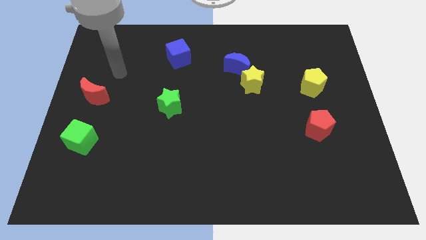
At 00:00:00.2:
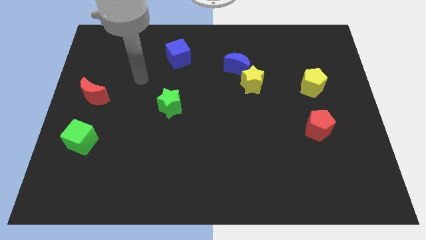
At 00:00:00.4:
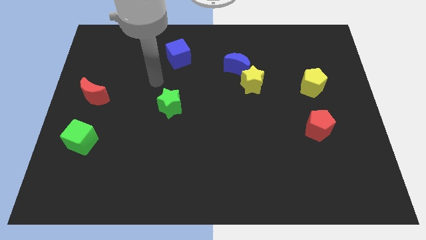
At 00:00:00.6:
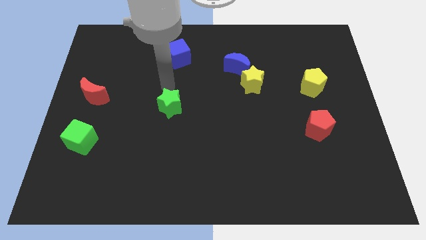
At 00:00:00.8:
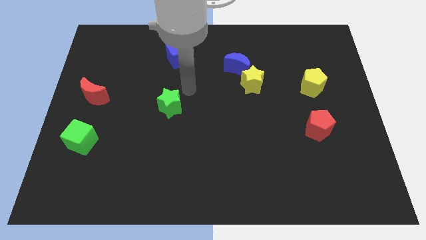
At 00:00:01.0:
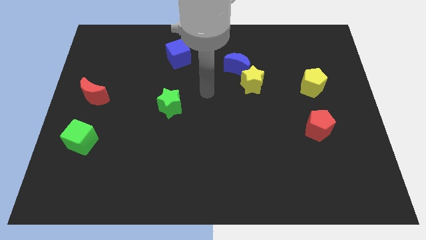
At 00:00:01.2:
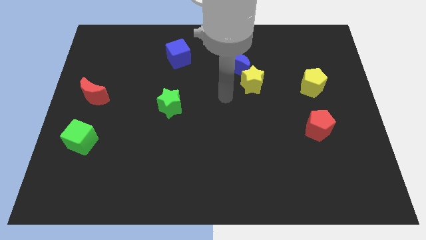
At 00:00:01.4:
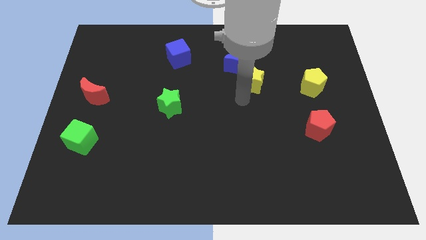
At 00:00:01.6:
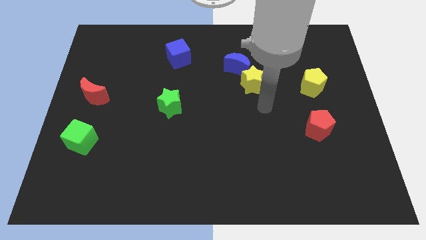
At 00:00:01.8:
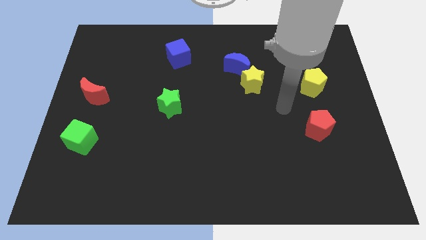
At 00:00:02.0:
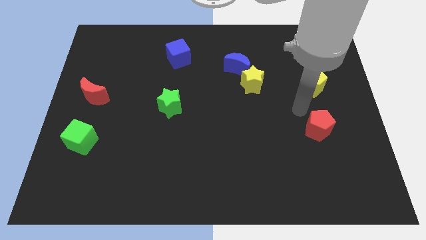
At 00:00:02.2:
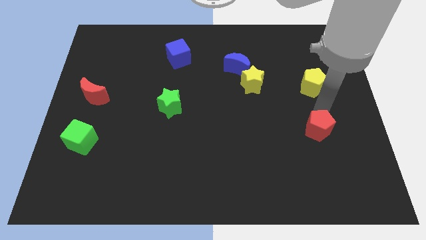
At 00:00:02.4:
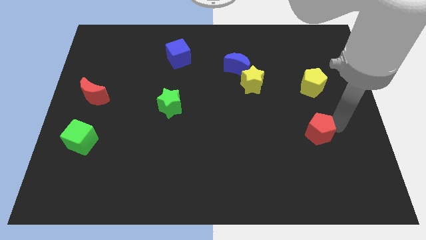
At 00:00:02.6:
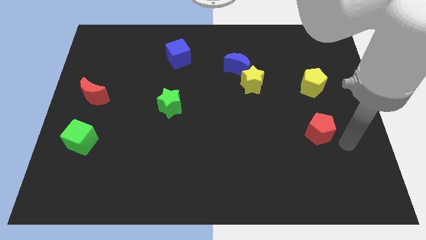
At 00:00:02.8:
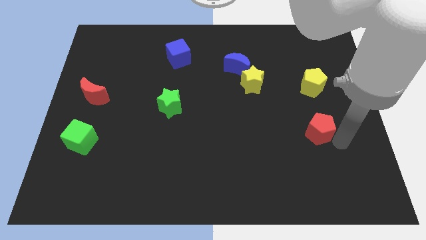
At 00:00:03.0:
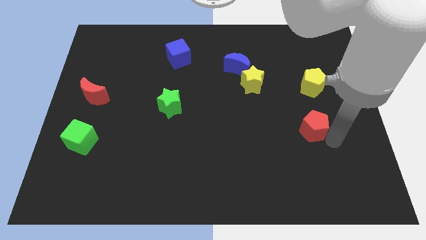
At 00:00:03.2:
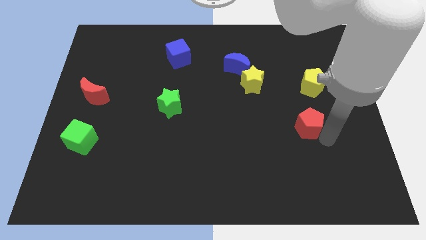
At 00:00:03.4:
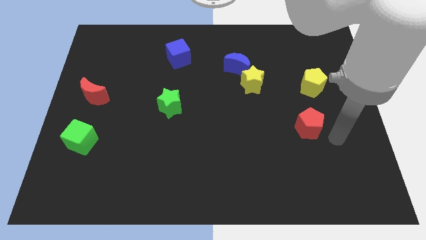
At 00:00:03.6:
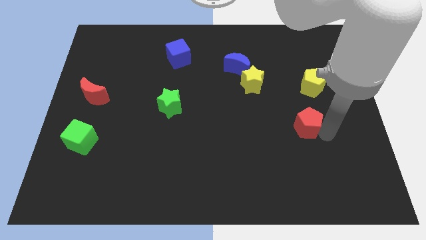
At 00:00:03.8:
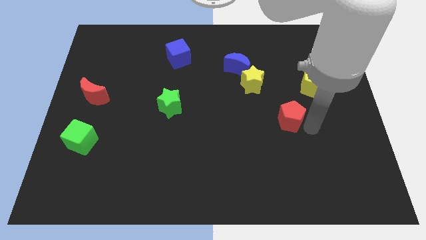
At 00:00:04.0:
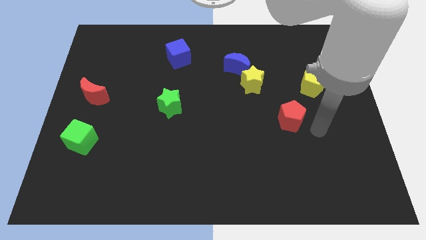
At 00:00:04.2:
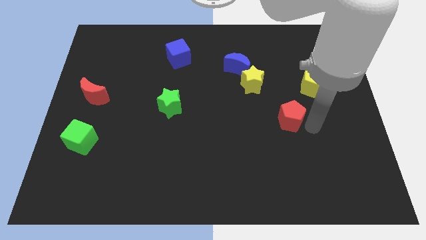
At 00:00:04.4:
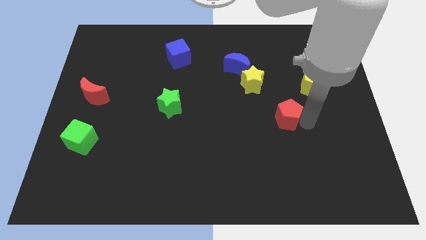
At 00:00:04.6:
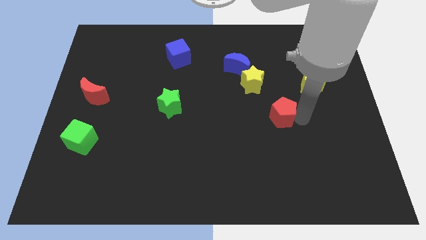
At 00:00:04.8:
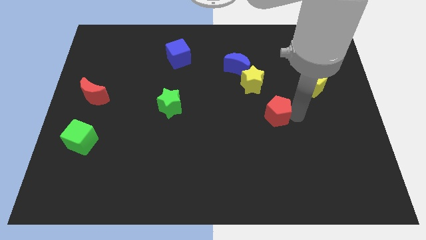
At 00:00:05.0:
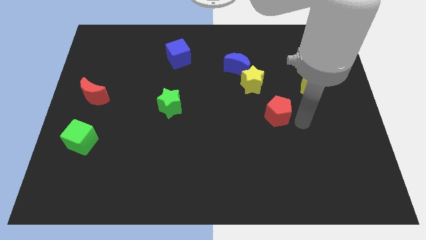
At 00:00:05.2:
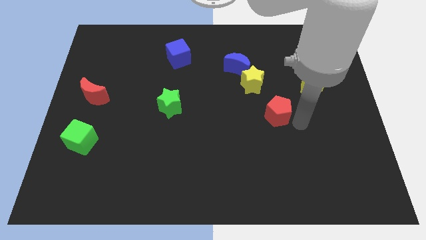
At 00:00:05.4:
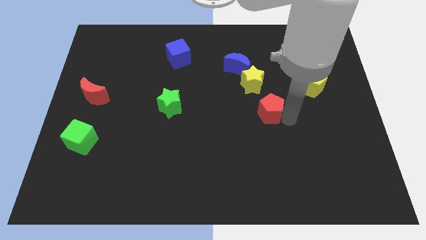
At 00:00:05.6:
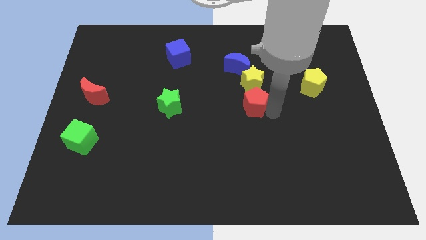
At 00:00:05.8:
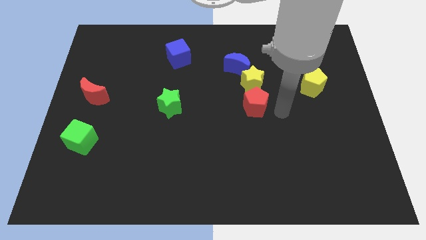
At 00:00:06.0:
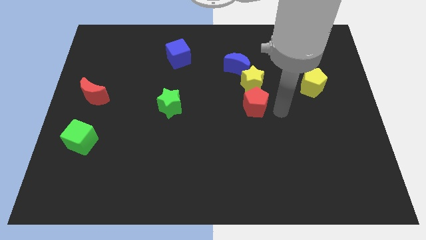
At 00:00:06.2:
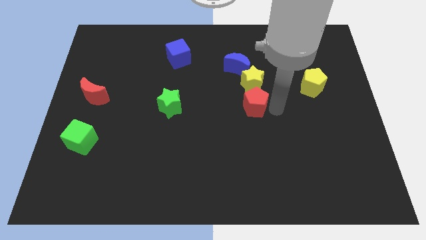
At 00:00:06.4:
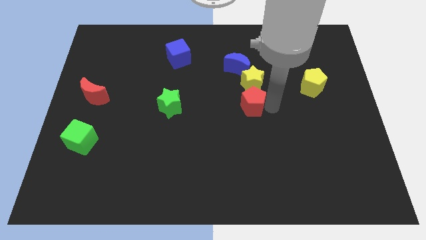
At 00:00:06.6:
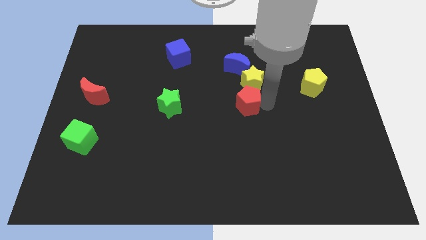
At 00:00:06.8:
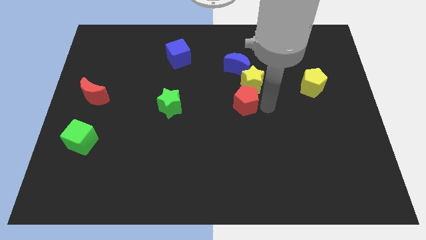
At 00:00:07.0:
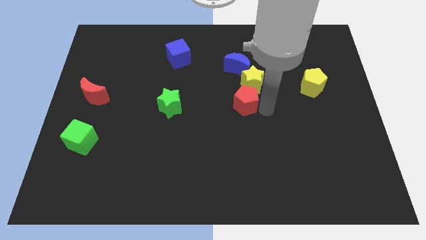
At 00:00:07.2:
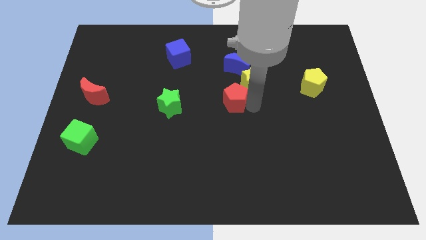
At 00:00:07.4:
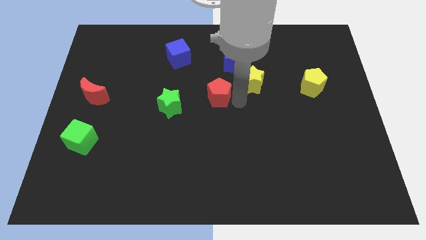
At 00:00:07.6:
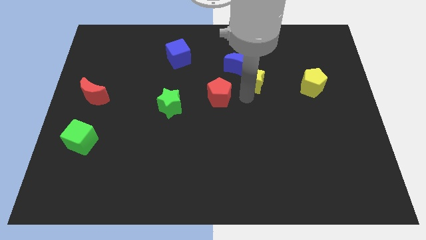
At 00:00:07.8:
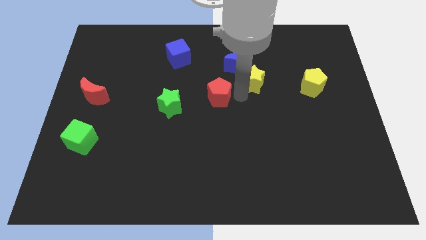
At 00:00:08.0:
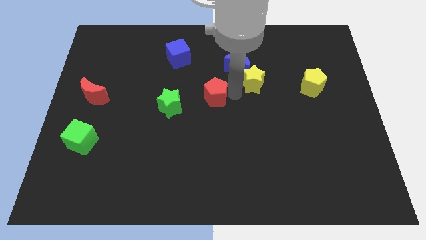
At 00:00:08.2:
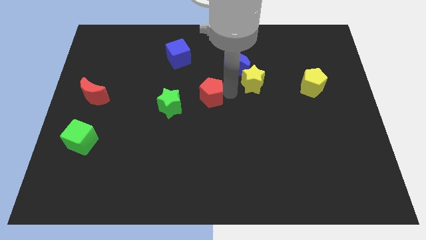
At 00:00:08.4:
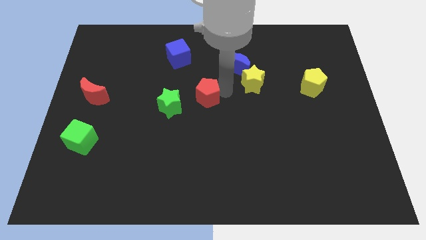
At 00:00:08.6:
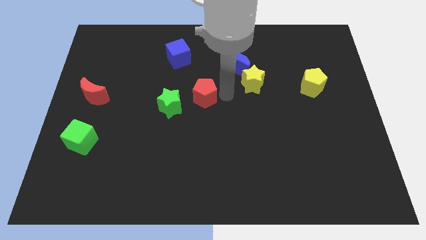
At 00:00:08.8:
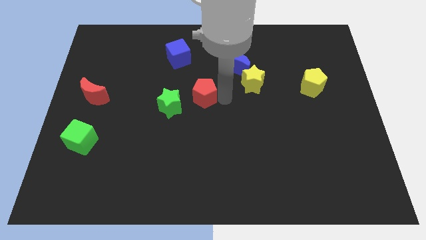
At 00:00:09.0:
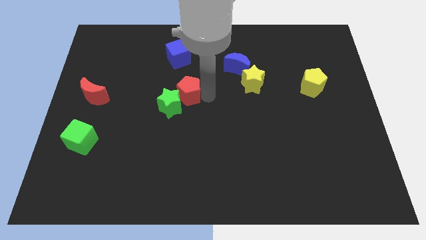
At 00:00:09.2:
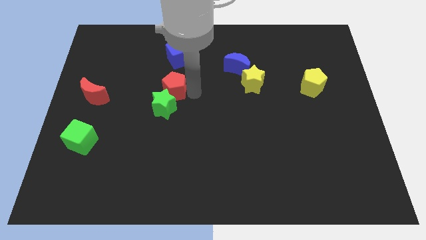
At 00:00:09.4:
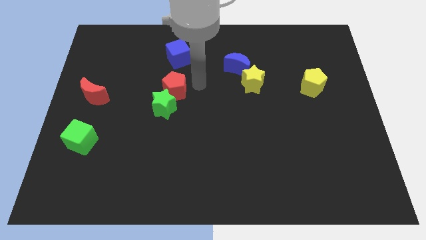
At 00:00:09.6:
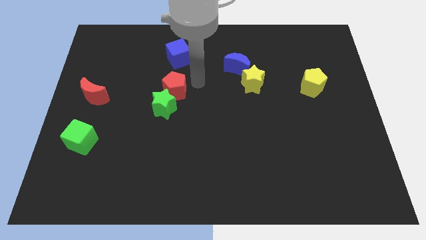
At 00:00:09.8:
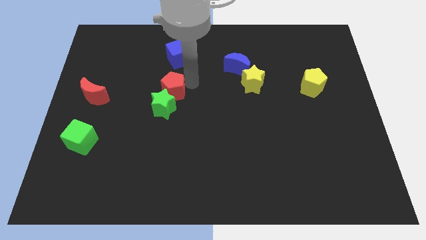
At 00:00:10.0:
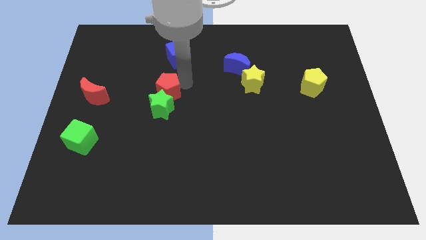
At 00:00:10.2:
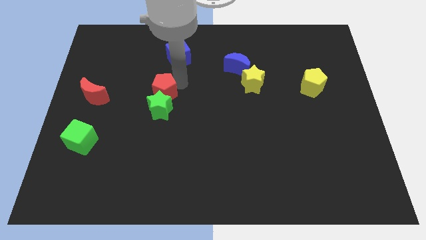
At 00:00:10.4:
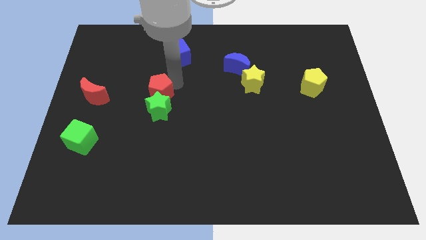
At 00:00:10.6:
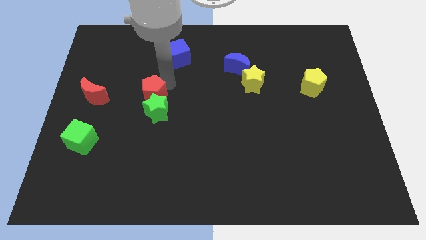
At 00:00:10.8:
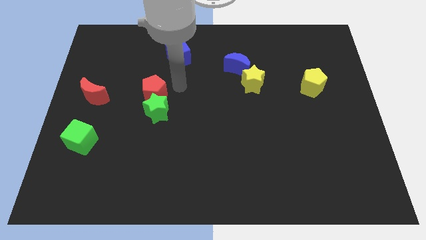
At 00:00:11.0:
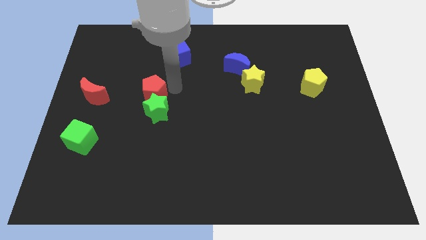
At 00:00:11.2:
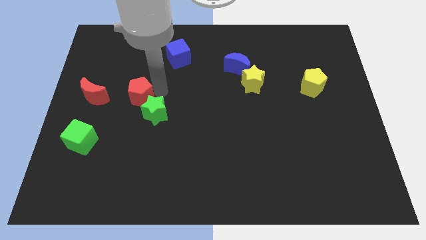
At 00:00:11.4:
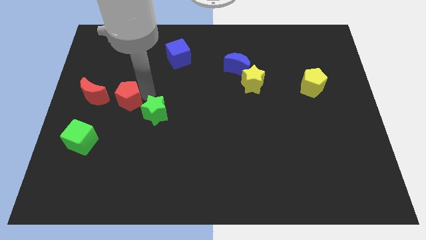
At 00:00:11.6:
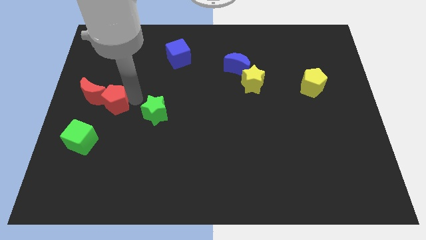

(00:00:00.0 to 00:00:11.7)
slide the red pentagon close to the red moon
